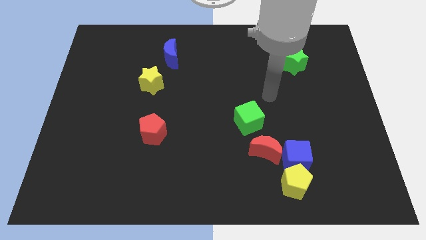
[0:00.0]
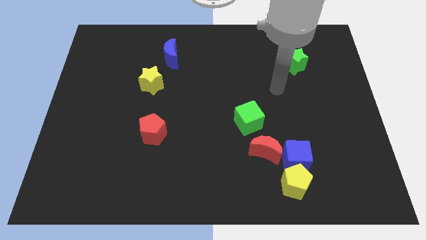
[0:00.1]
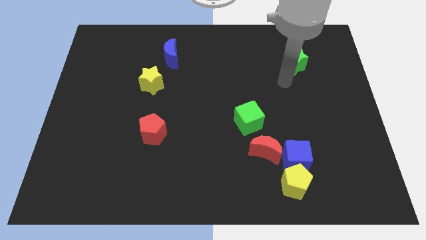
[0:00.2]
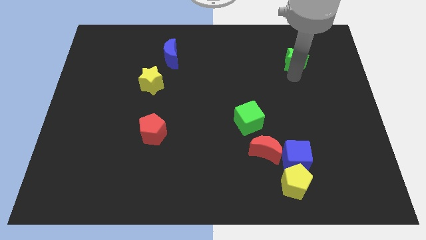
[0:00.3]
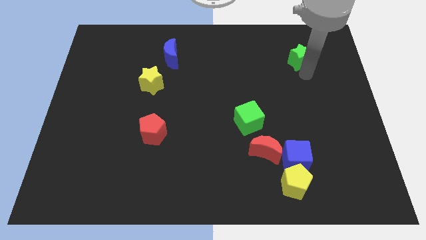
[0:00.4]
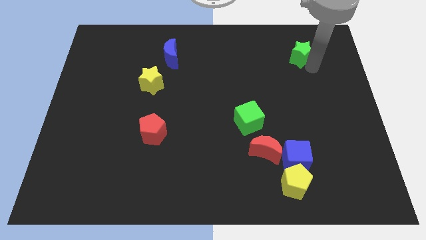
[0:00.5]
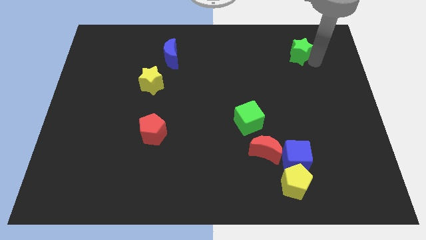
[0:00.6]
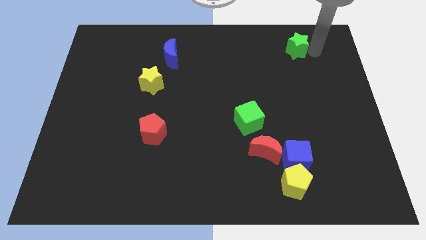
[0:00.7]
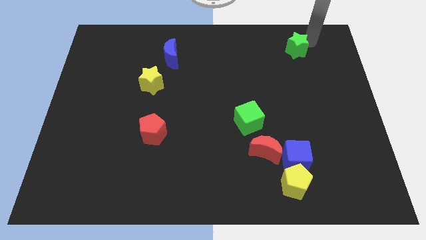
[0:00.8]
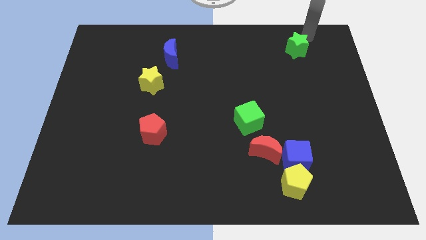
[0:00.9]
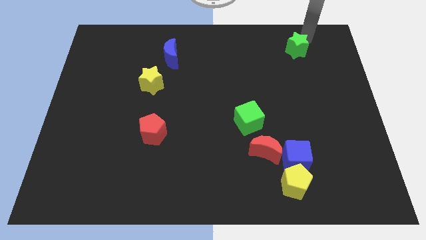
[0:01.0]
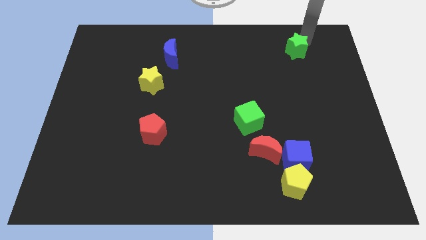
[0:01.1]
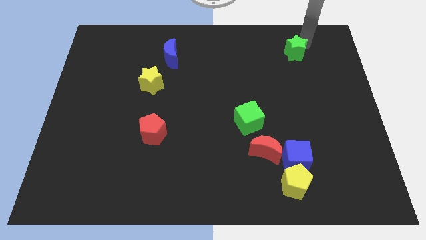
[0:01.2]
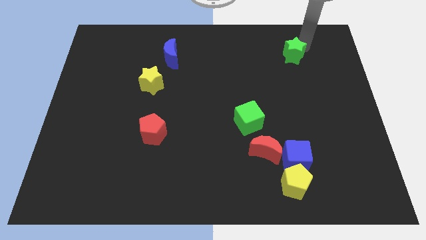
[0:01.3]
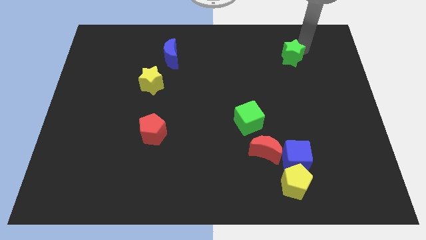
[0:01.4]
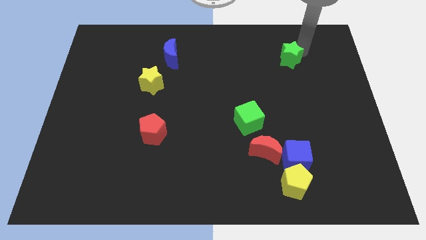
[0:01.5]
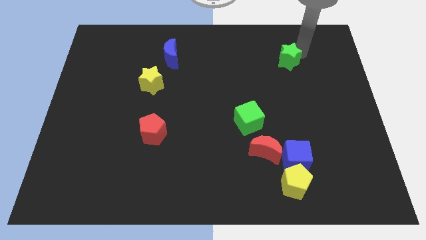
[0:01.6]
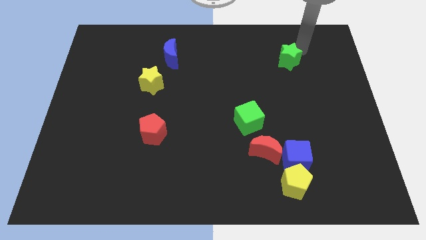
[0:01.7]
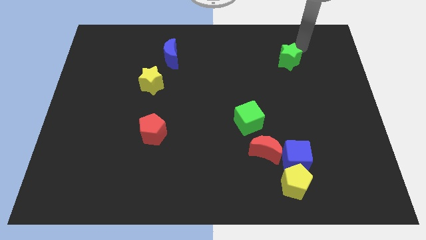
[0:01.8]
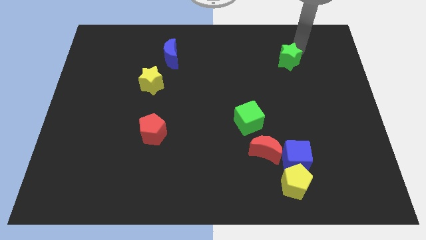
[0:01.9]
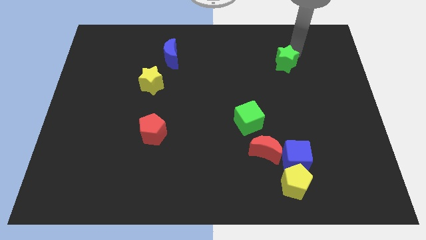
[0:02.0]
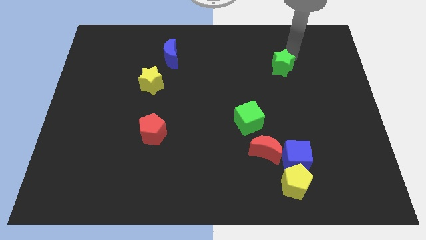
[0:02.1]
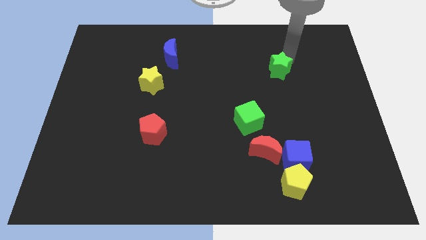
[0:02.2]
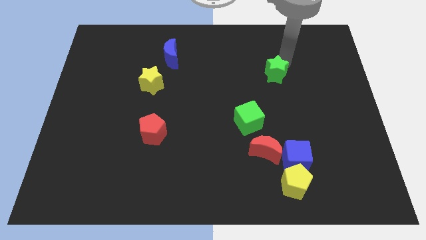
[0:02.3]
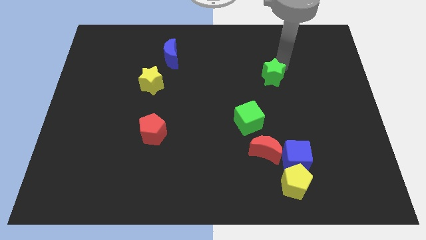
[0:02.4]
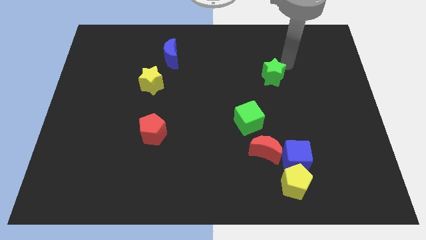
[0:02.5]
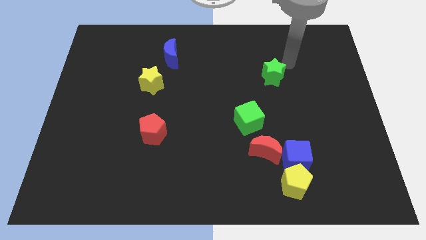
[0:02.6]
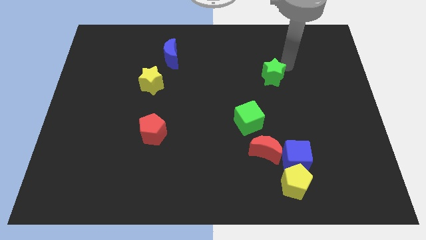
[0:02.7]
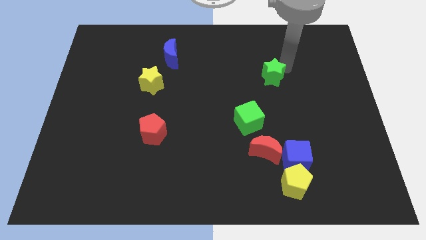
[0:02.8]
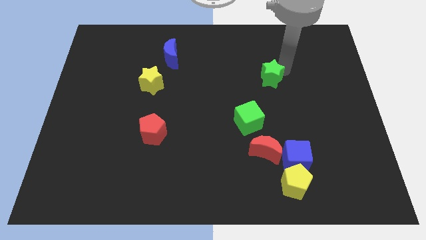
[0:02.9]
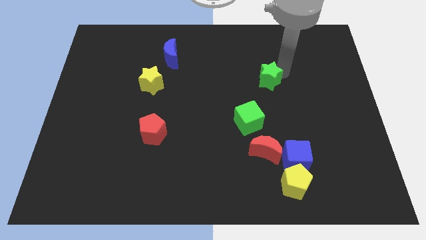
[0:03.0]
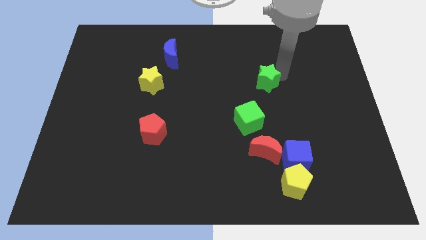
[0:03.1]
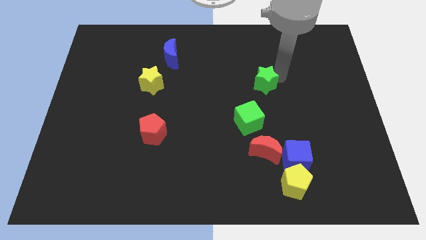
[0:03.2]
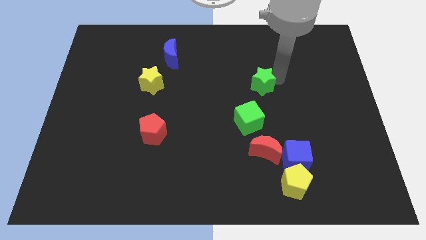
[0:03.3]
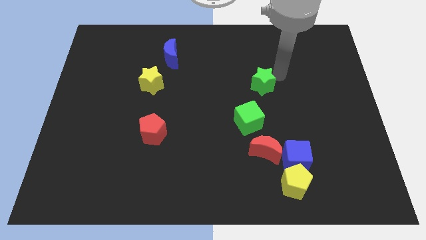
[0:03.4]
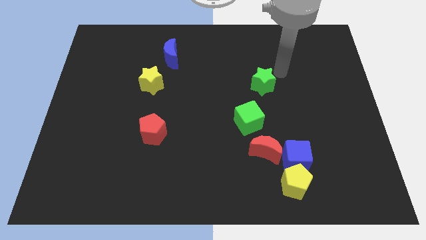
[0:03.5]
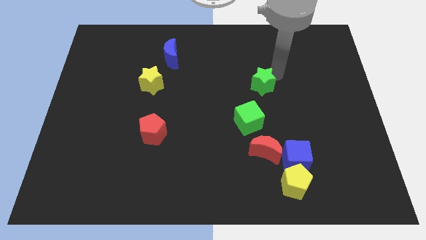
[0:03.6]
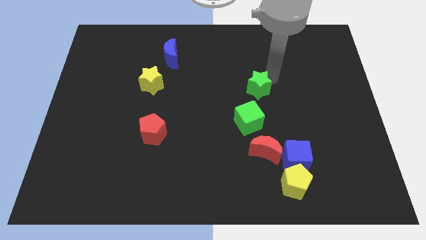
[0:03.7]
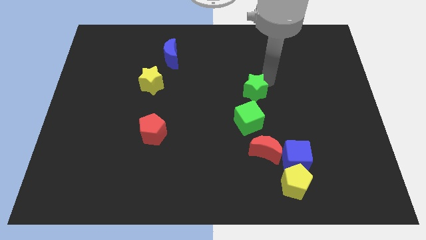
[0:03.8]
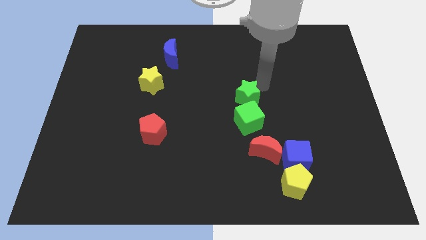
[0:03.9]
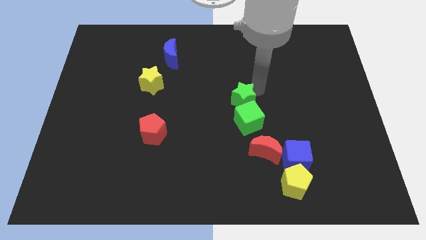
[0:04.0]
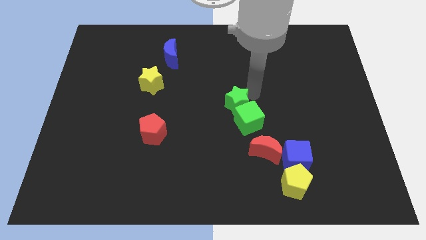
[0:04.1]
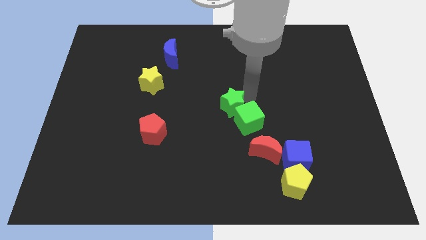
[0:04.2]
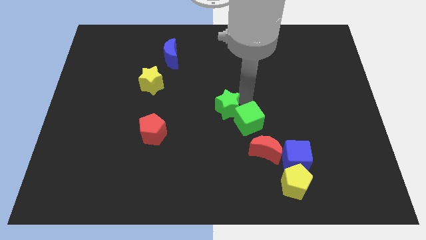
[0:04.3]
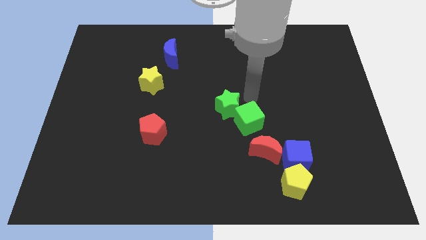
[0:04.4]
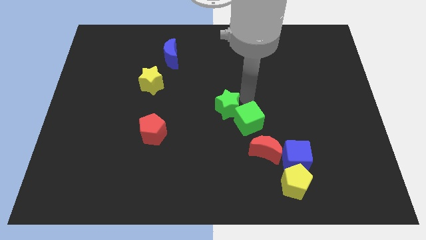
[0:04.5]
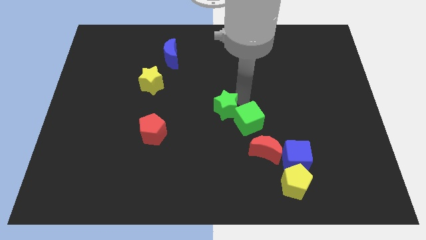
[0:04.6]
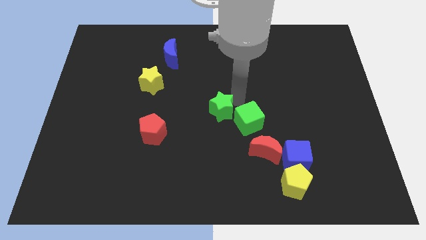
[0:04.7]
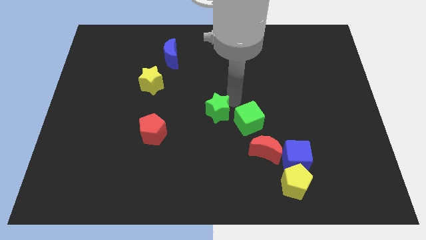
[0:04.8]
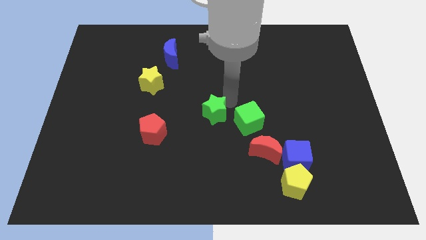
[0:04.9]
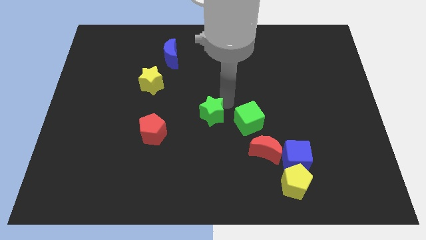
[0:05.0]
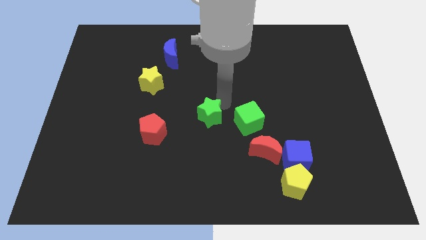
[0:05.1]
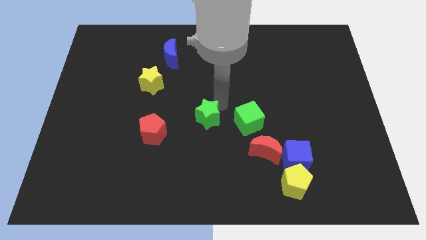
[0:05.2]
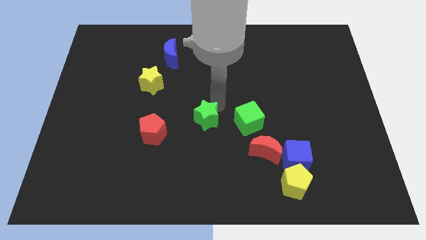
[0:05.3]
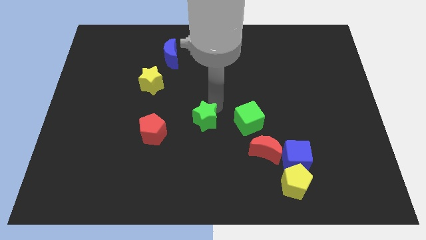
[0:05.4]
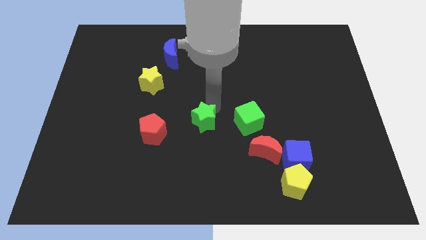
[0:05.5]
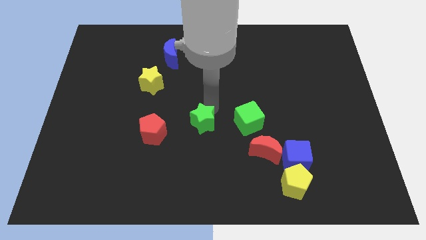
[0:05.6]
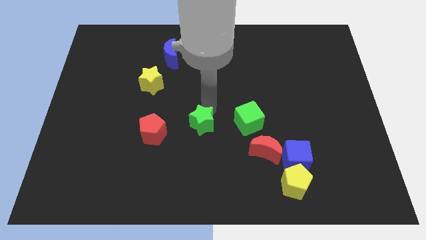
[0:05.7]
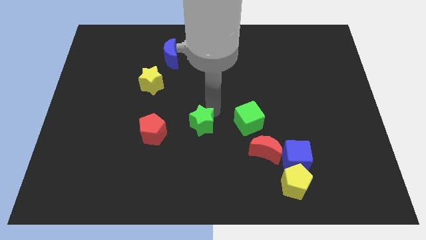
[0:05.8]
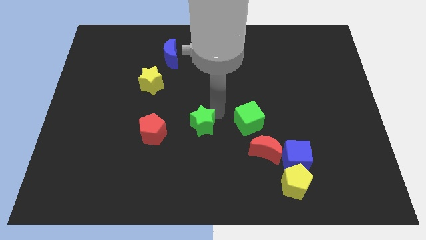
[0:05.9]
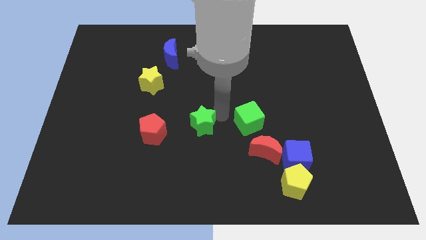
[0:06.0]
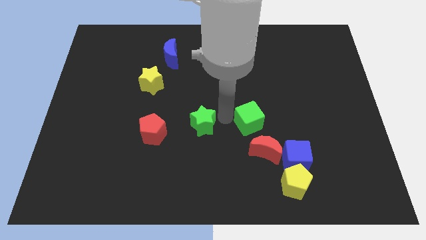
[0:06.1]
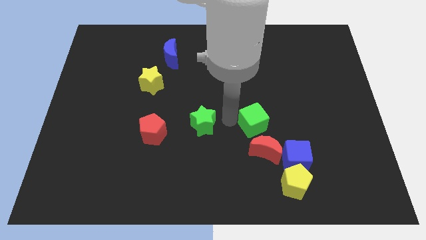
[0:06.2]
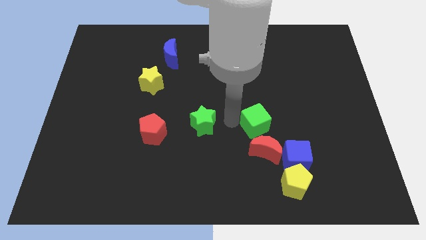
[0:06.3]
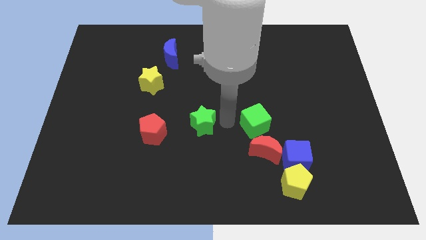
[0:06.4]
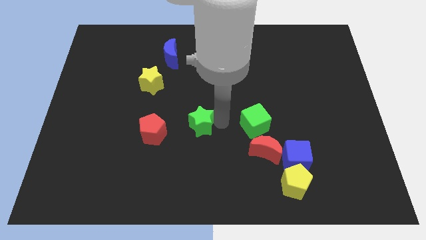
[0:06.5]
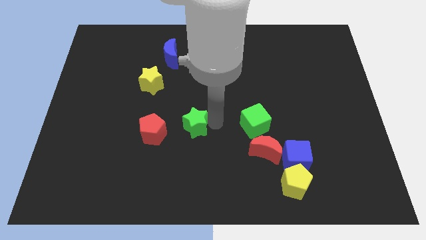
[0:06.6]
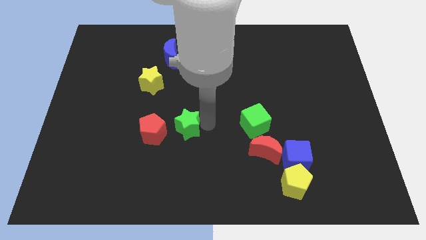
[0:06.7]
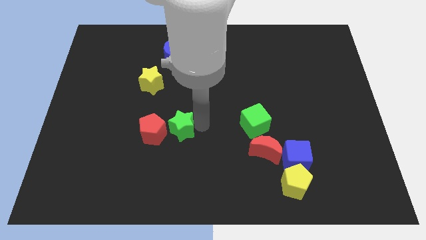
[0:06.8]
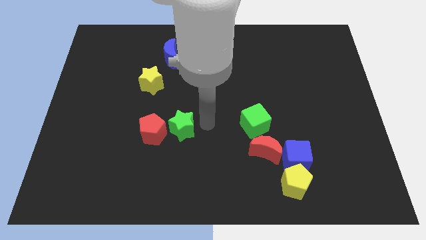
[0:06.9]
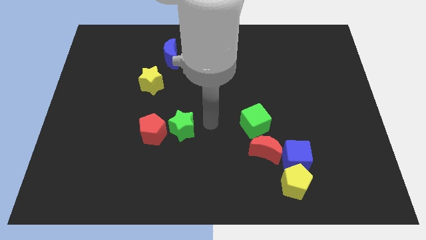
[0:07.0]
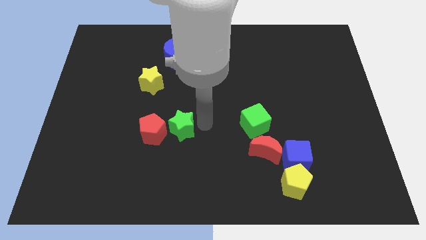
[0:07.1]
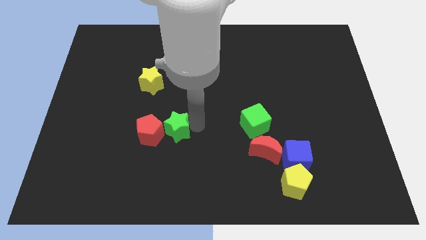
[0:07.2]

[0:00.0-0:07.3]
move the green star to the red pentagon
